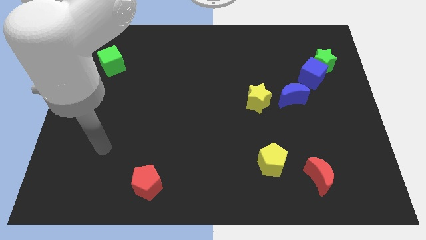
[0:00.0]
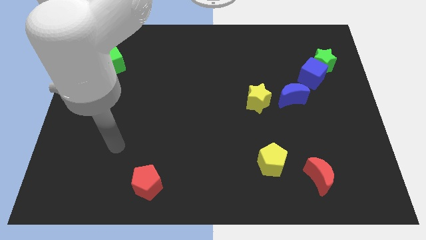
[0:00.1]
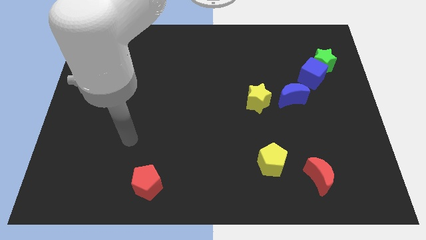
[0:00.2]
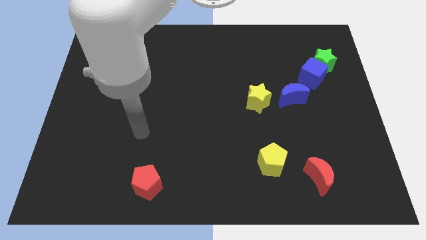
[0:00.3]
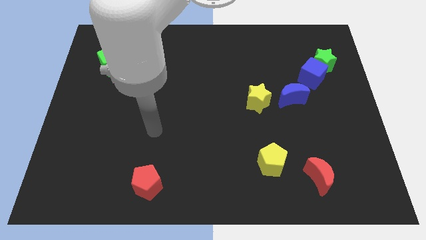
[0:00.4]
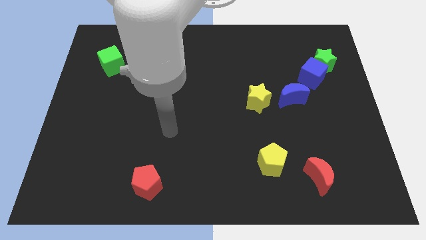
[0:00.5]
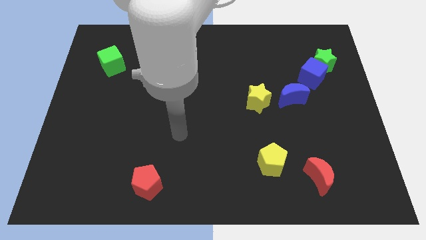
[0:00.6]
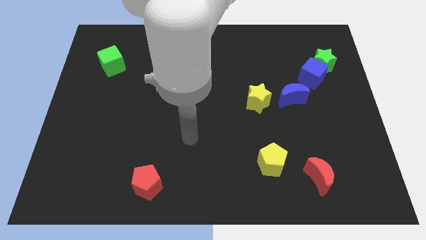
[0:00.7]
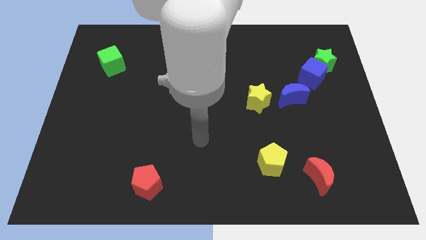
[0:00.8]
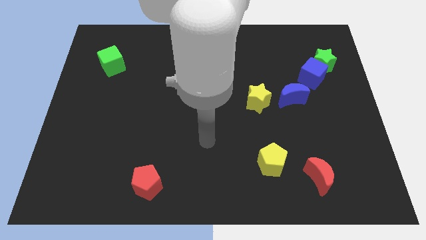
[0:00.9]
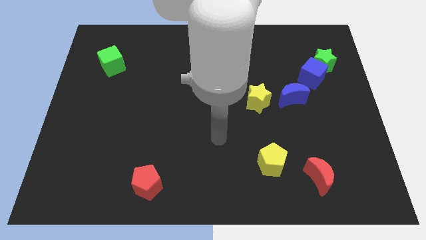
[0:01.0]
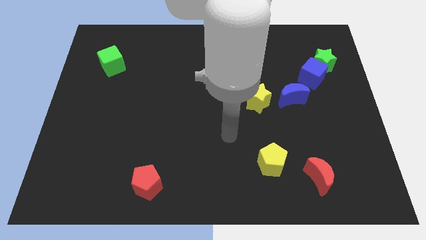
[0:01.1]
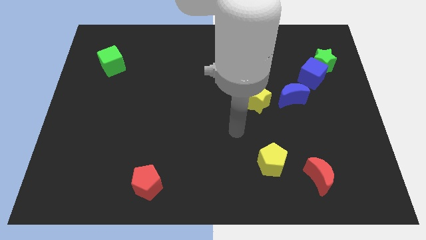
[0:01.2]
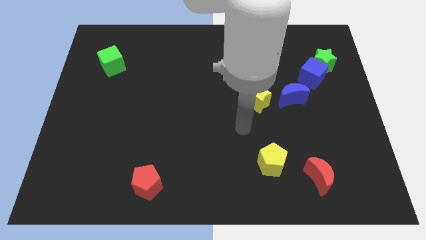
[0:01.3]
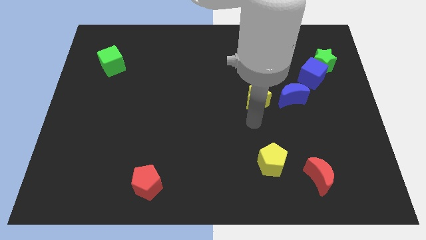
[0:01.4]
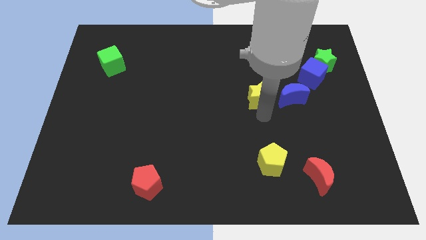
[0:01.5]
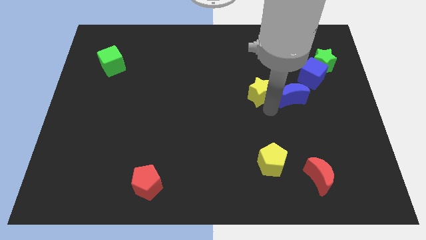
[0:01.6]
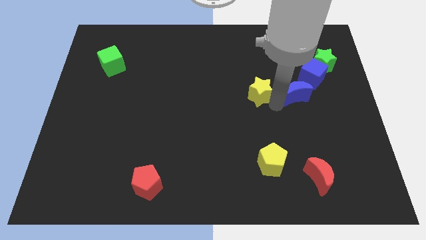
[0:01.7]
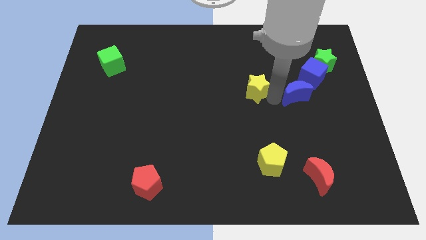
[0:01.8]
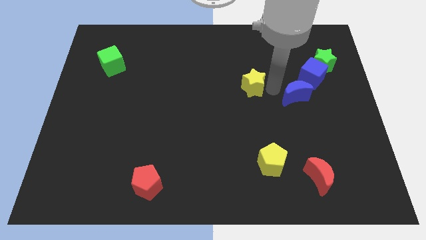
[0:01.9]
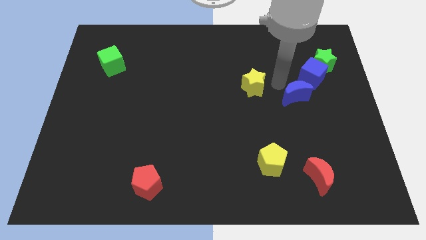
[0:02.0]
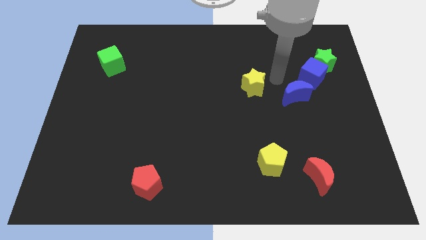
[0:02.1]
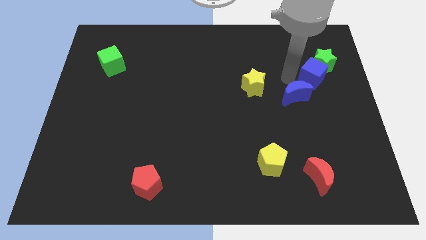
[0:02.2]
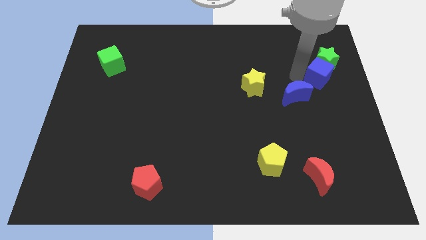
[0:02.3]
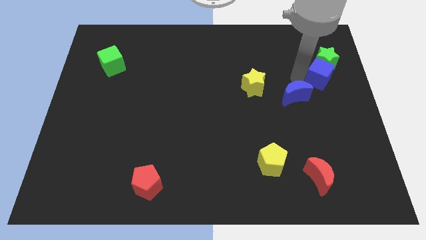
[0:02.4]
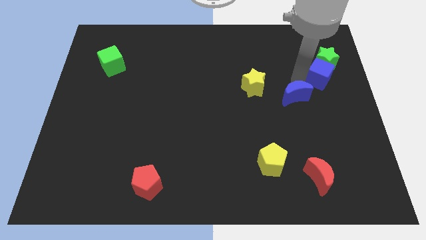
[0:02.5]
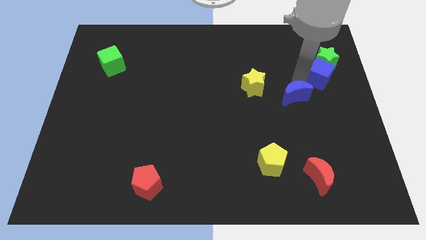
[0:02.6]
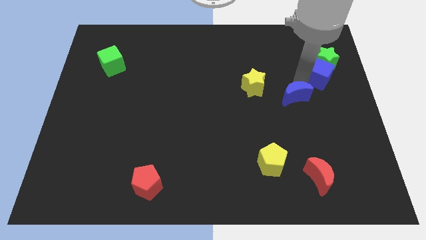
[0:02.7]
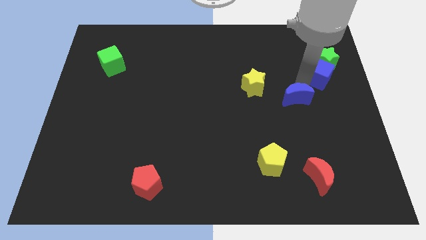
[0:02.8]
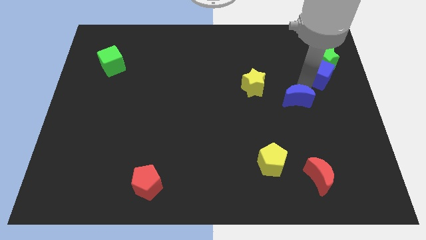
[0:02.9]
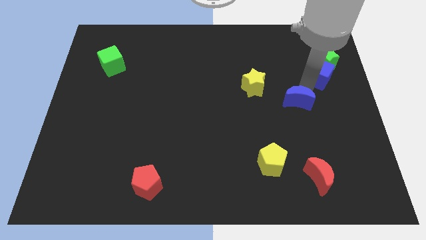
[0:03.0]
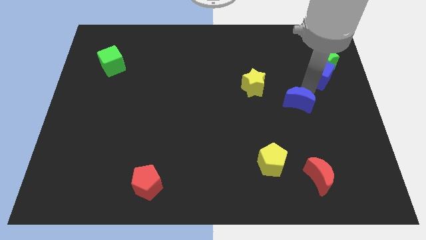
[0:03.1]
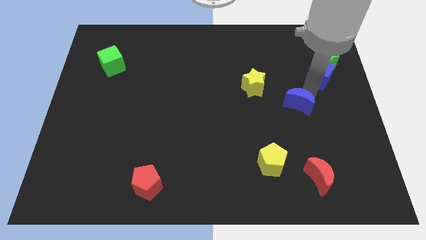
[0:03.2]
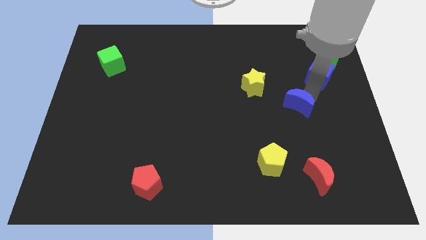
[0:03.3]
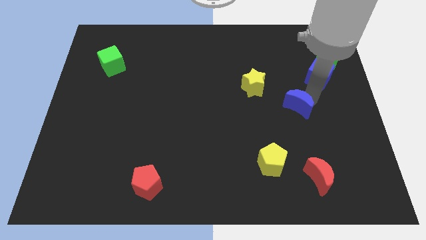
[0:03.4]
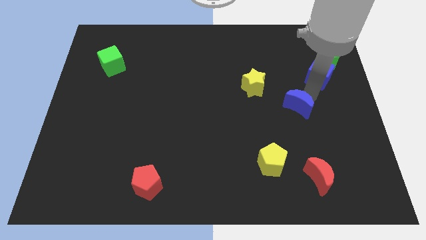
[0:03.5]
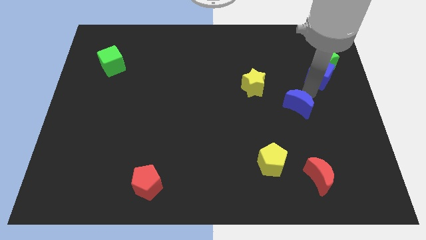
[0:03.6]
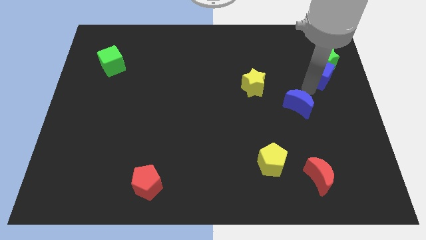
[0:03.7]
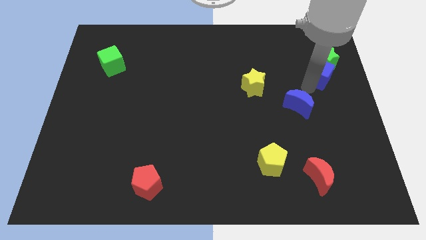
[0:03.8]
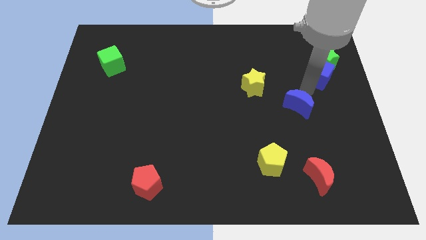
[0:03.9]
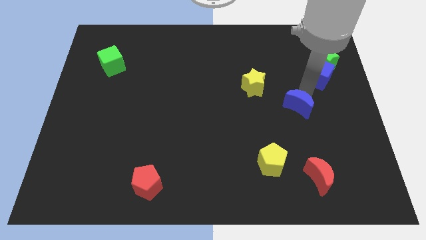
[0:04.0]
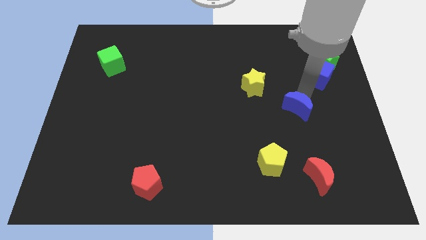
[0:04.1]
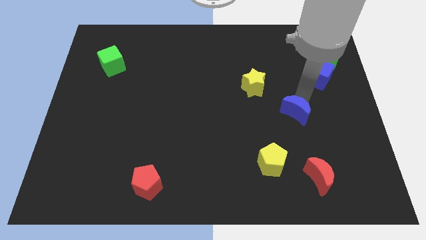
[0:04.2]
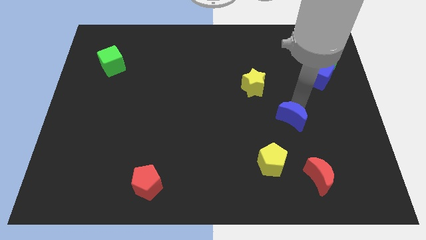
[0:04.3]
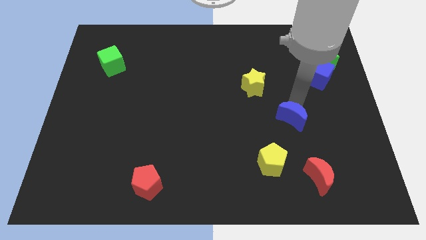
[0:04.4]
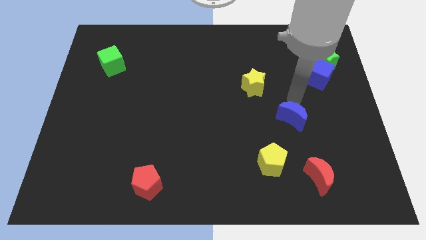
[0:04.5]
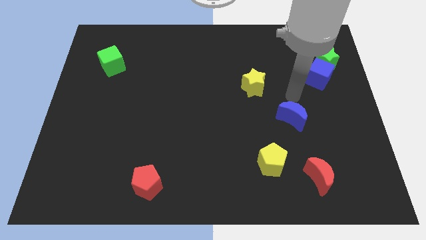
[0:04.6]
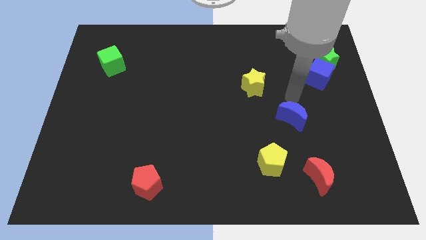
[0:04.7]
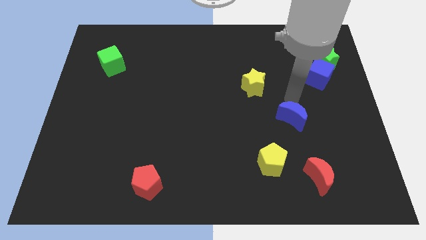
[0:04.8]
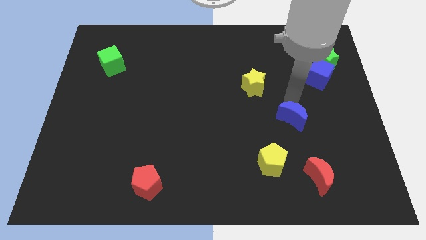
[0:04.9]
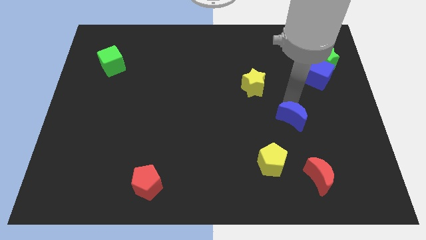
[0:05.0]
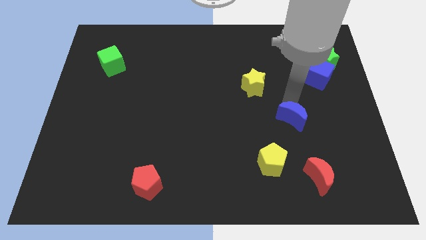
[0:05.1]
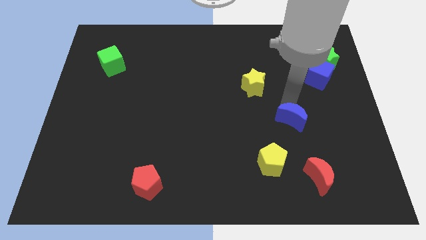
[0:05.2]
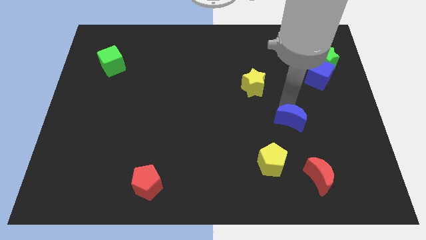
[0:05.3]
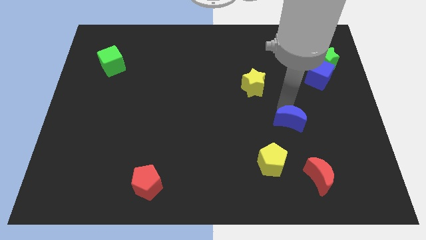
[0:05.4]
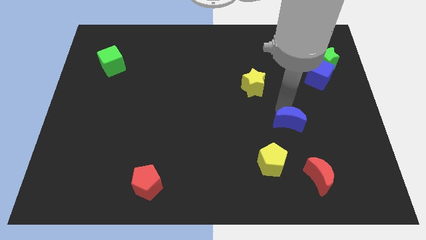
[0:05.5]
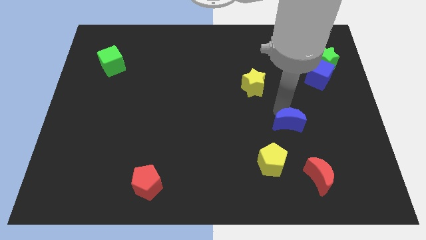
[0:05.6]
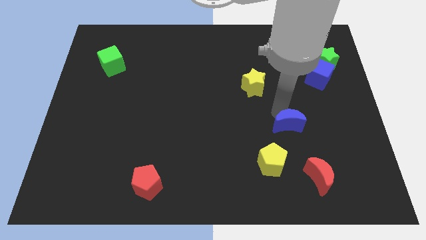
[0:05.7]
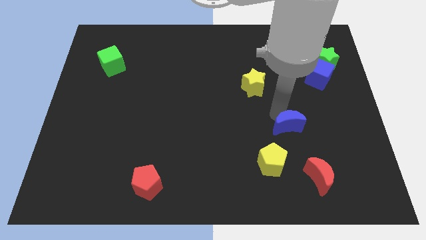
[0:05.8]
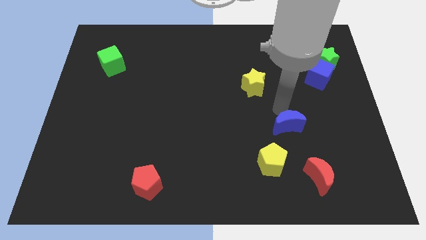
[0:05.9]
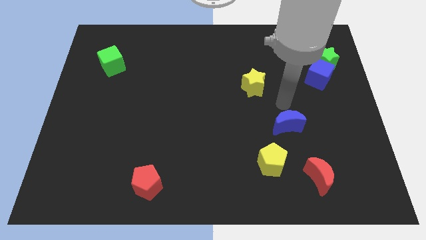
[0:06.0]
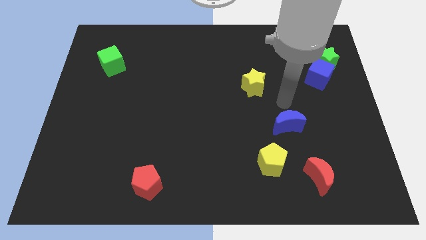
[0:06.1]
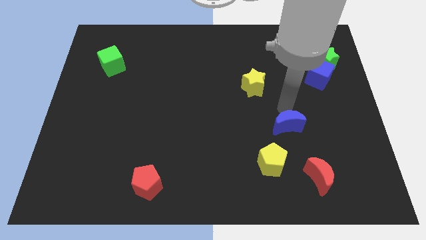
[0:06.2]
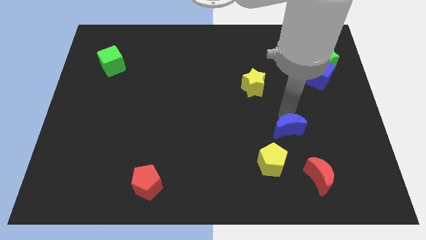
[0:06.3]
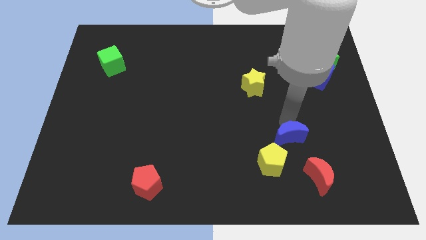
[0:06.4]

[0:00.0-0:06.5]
put the blue moon diagonally up and to the left of the red moon
